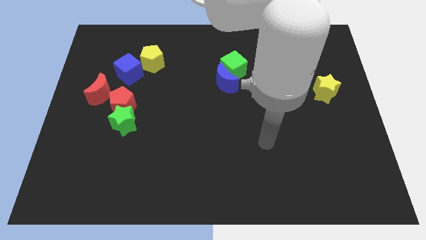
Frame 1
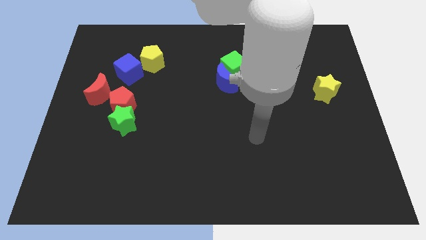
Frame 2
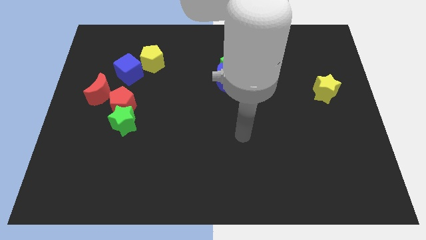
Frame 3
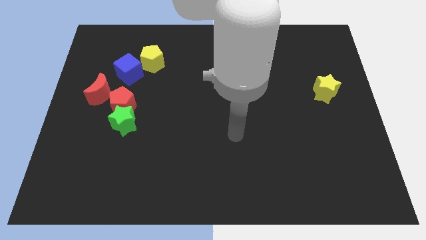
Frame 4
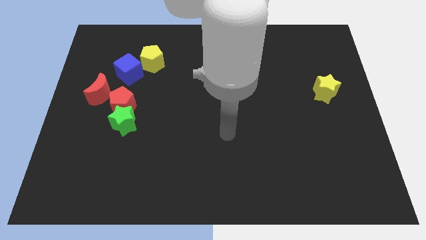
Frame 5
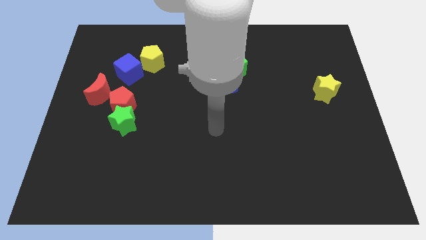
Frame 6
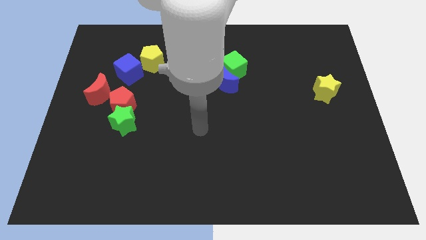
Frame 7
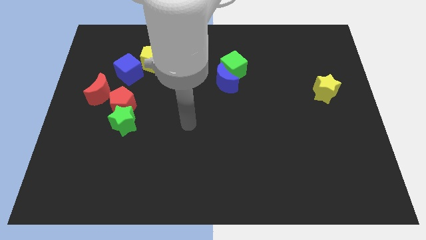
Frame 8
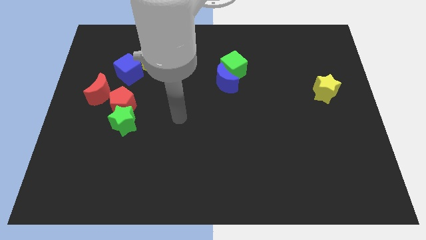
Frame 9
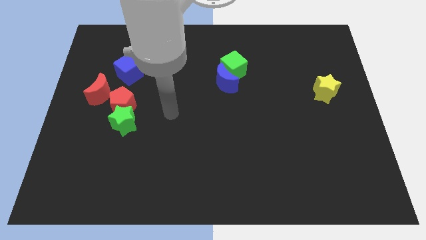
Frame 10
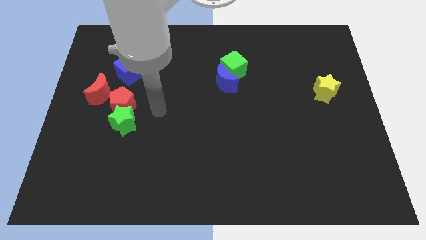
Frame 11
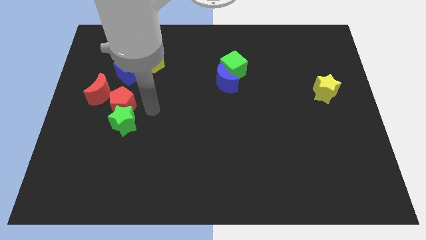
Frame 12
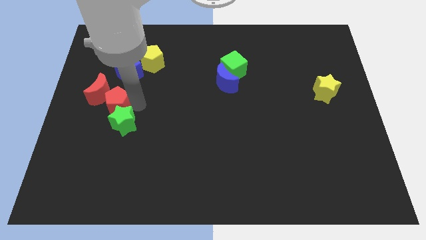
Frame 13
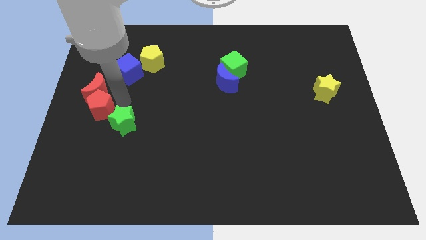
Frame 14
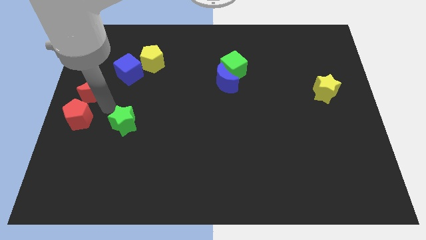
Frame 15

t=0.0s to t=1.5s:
move the green star away from the red pentagon

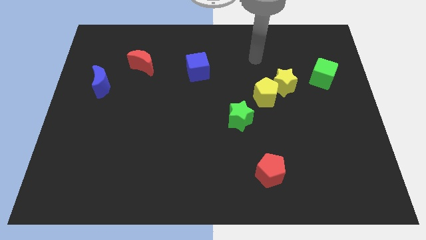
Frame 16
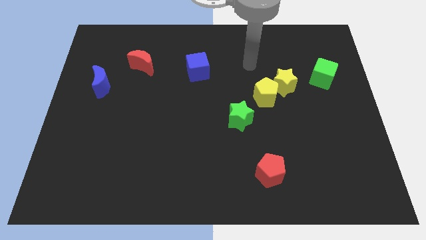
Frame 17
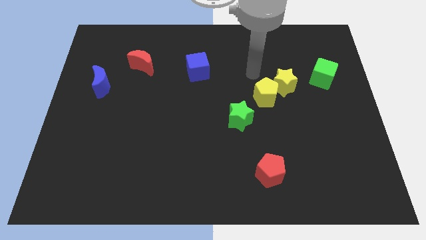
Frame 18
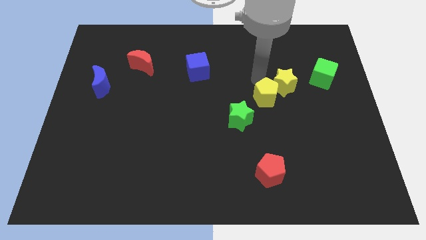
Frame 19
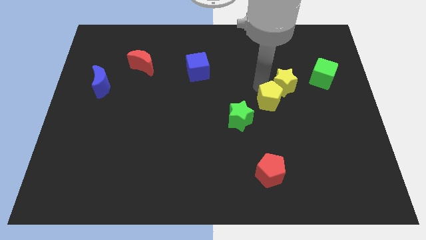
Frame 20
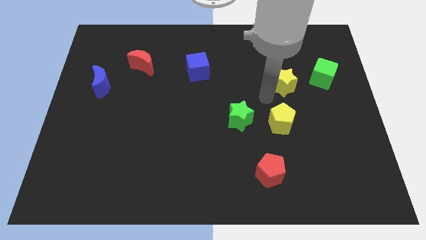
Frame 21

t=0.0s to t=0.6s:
pull the yellow star apart from the yellow pentagon

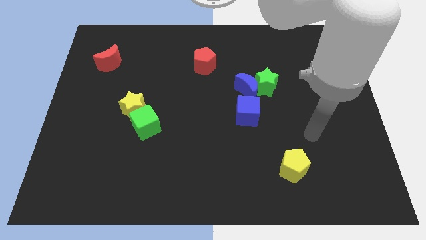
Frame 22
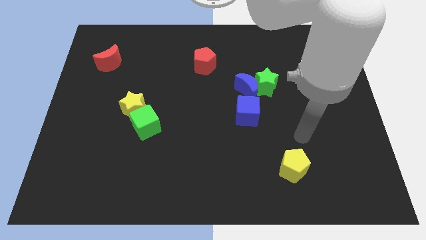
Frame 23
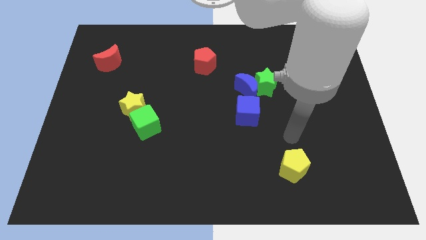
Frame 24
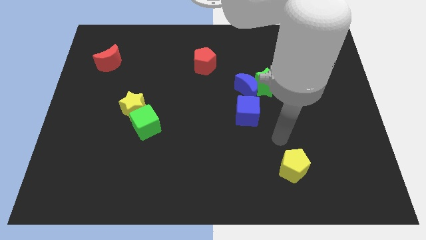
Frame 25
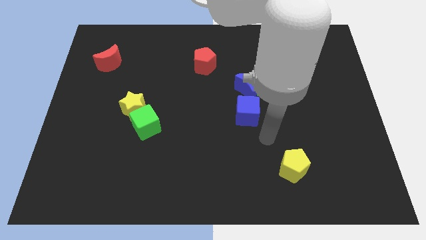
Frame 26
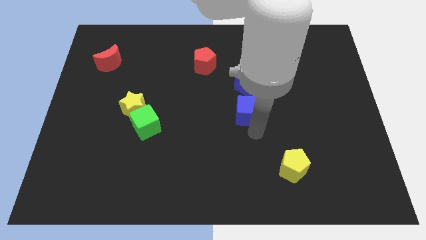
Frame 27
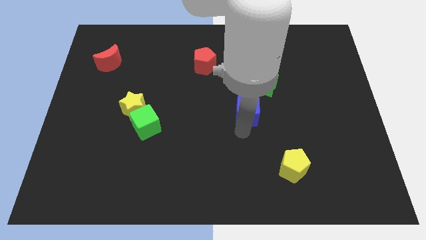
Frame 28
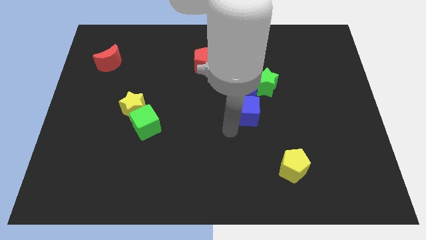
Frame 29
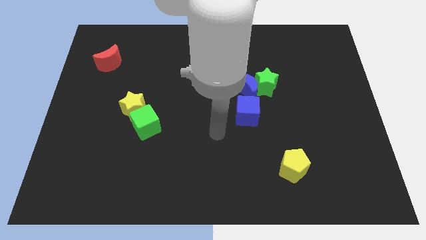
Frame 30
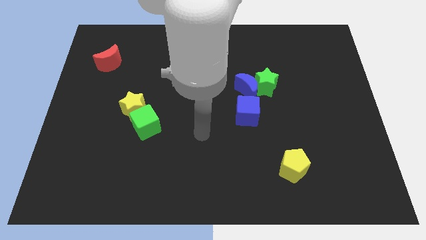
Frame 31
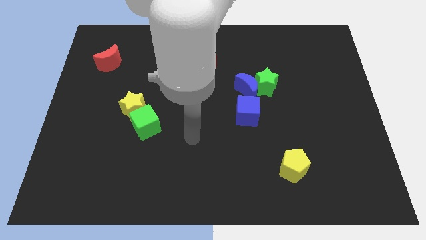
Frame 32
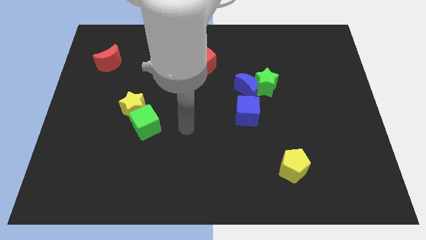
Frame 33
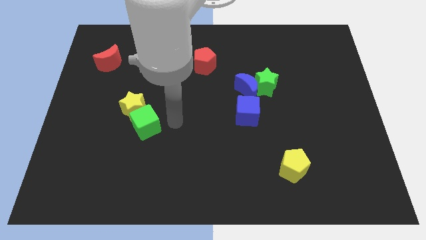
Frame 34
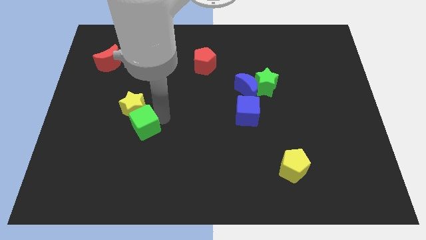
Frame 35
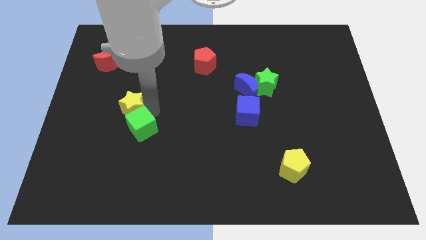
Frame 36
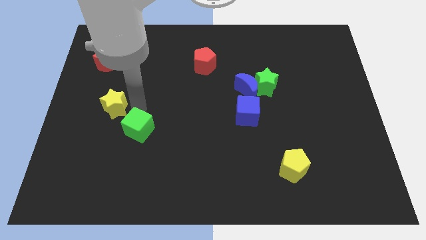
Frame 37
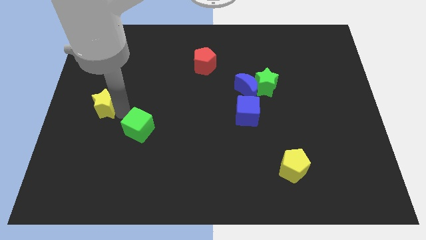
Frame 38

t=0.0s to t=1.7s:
pull the green cube apart from the yellow star

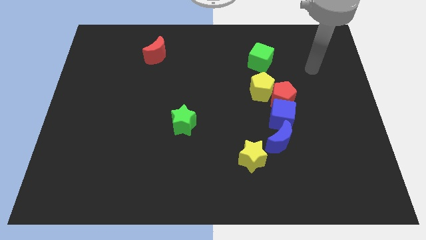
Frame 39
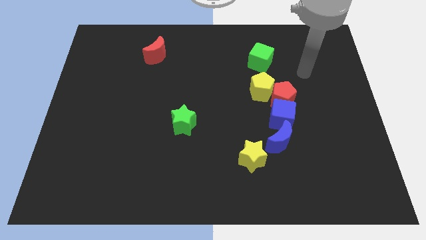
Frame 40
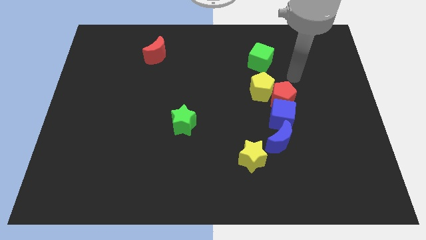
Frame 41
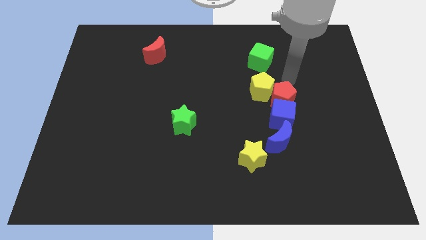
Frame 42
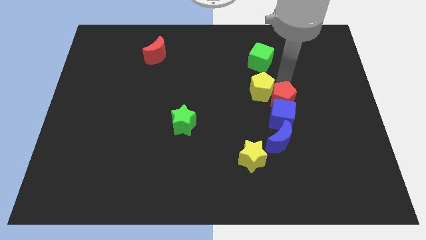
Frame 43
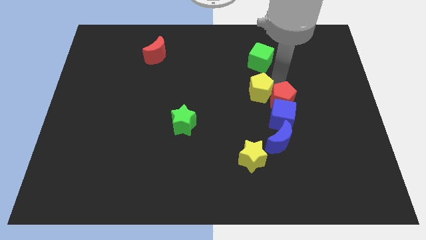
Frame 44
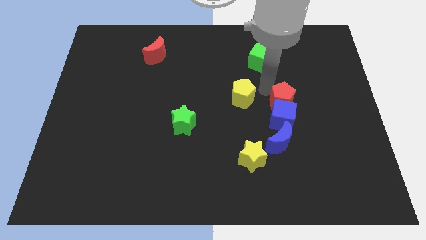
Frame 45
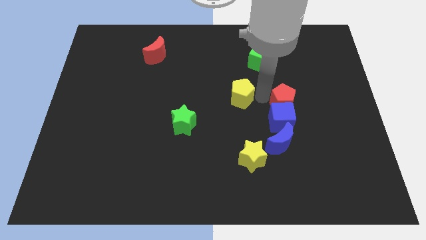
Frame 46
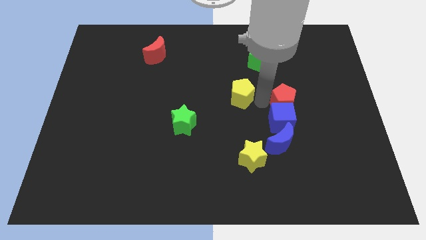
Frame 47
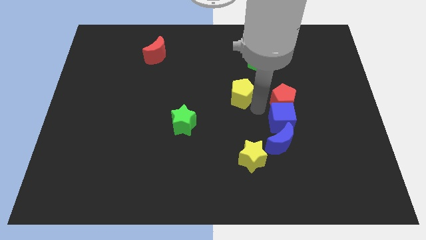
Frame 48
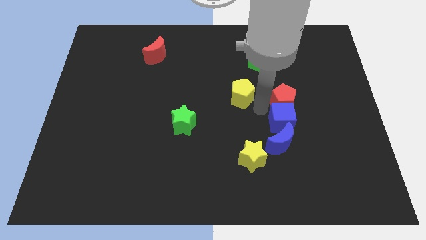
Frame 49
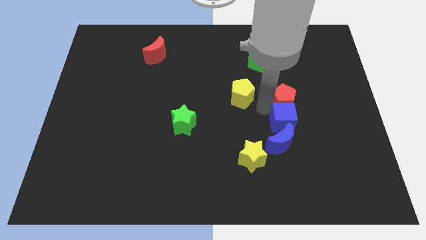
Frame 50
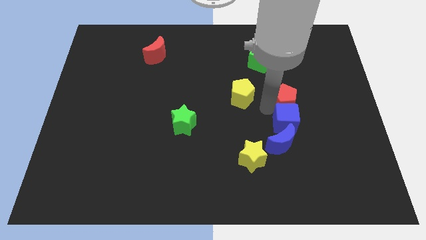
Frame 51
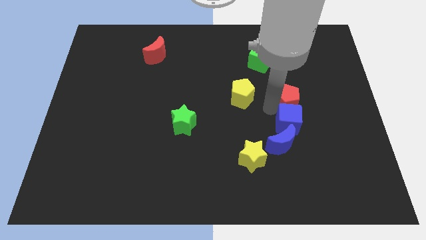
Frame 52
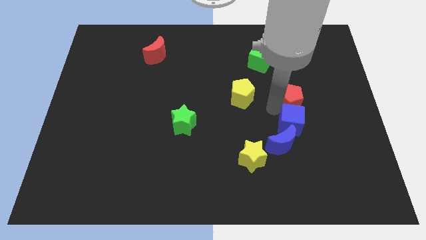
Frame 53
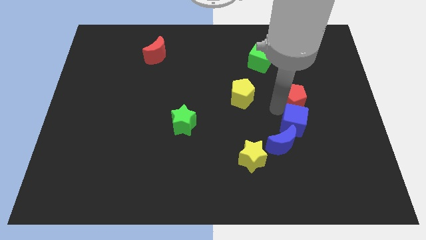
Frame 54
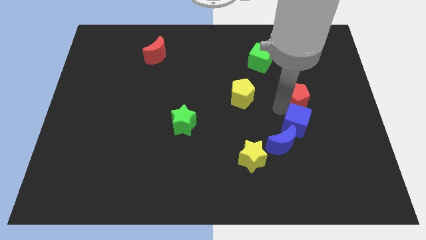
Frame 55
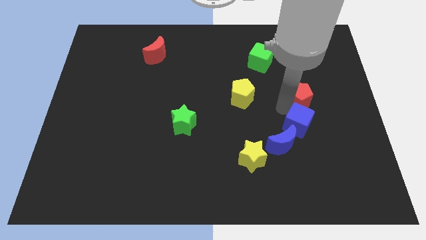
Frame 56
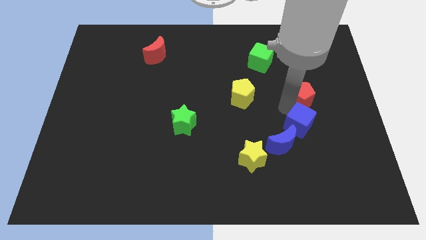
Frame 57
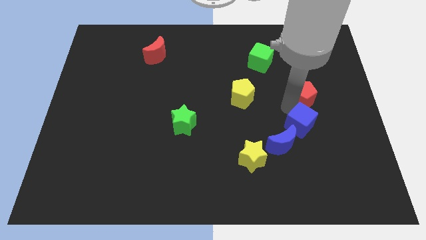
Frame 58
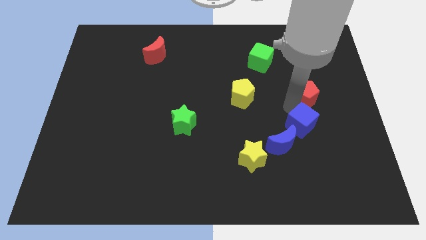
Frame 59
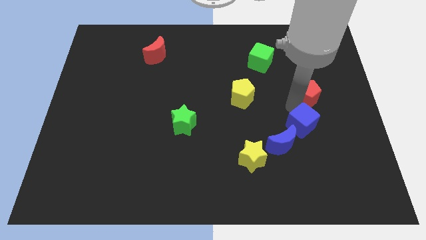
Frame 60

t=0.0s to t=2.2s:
move the red pentagon away from the blue cube and yellow pentagon

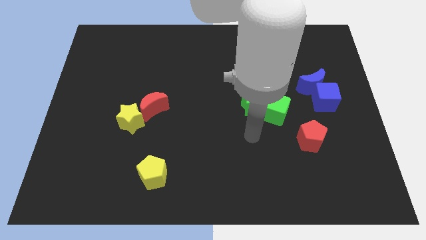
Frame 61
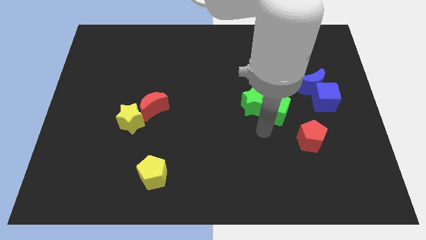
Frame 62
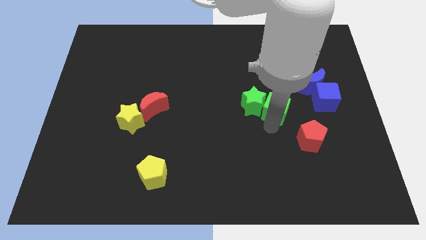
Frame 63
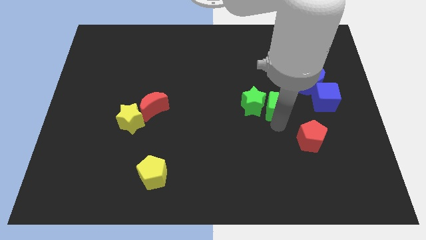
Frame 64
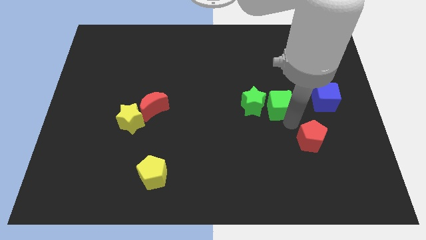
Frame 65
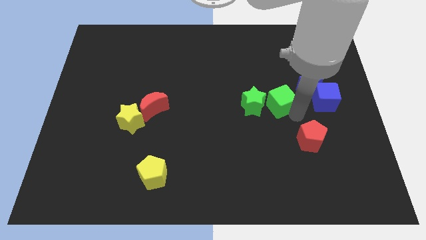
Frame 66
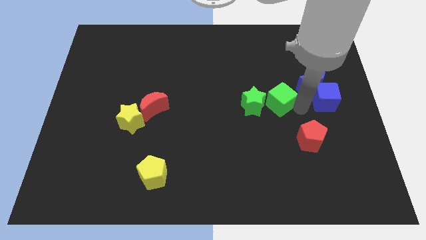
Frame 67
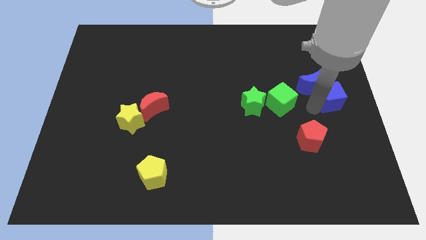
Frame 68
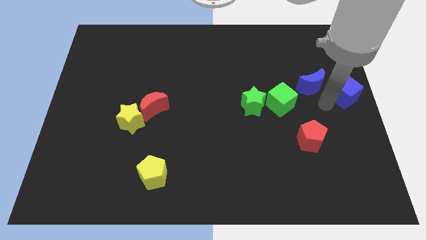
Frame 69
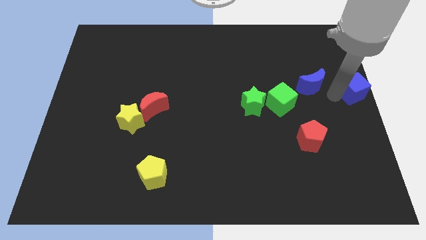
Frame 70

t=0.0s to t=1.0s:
pull the blue moon apart from the blue cube

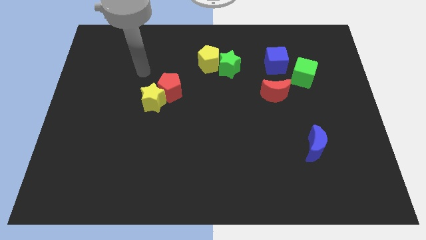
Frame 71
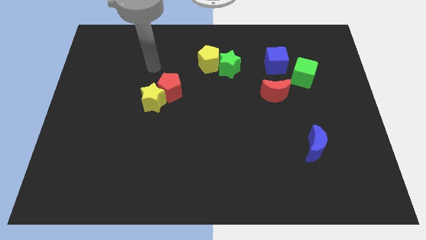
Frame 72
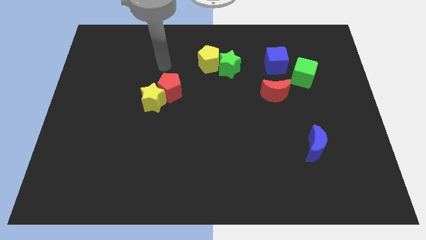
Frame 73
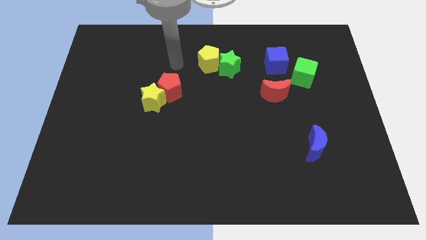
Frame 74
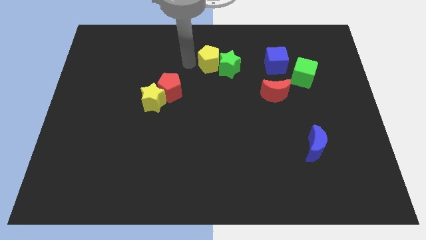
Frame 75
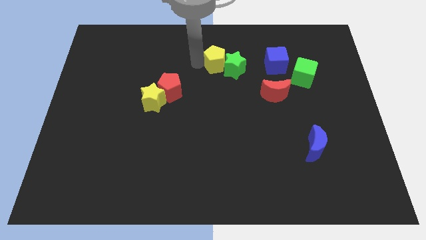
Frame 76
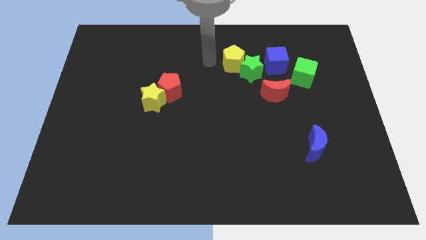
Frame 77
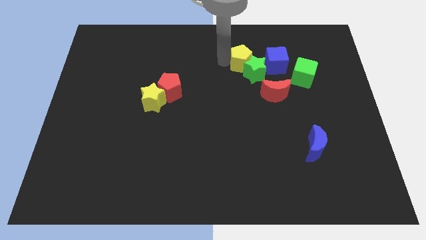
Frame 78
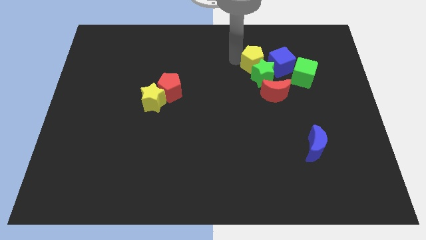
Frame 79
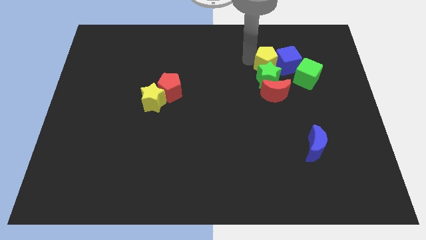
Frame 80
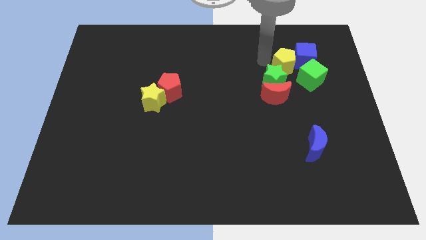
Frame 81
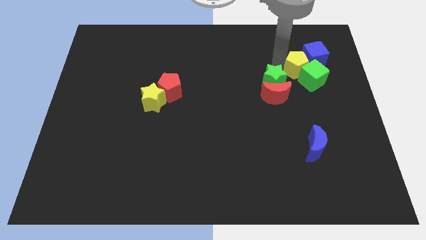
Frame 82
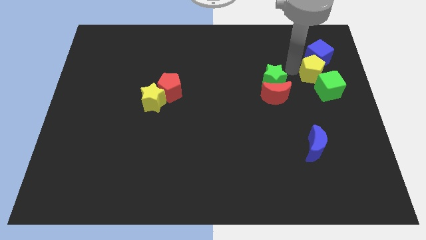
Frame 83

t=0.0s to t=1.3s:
pull the green star apart from the yellow pentagon

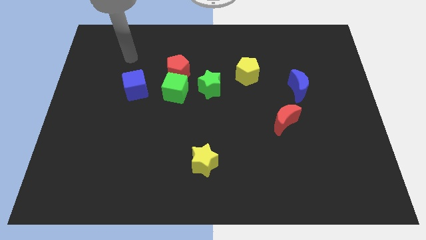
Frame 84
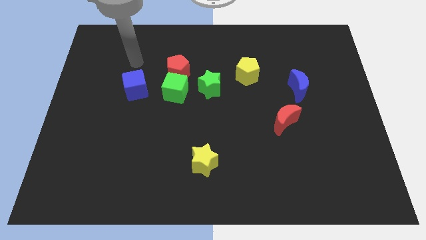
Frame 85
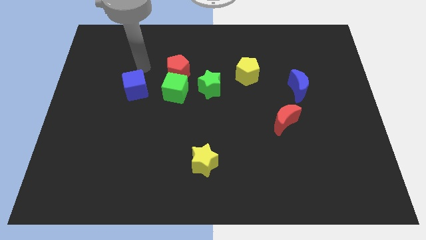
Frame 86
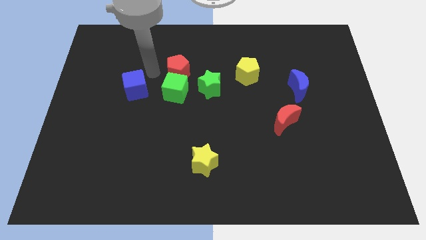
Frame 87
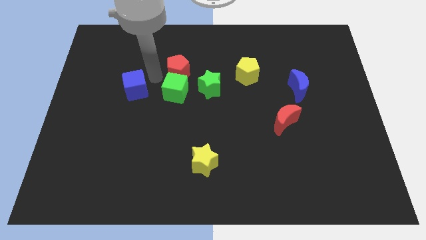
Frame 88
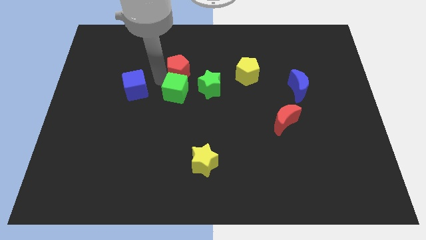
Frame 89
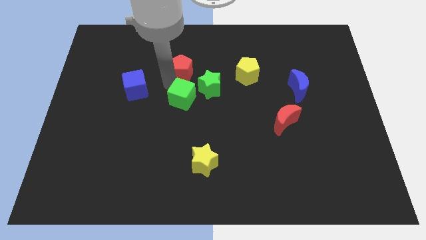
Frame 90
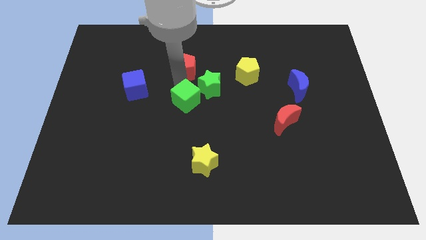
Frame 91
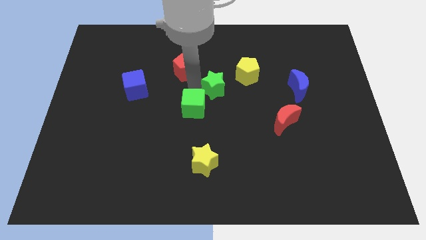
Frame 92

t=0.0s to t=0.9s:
pull the red pentagon apart from the green cube and green star
